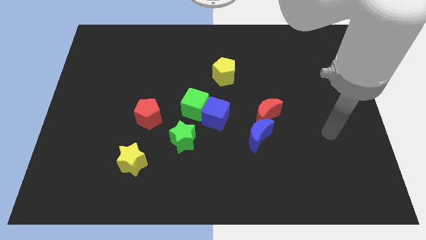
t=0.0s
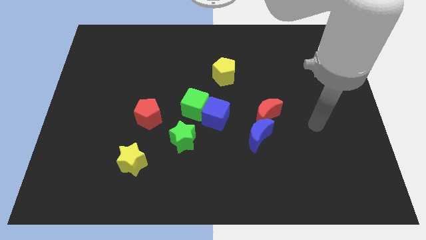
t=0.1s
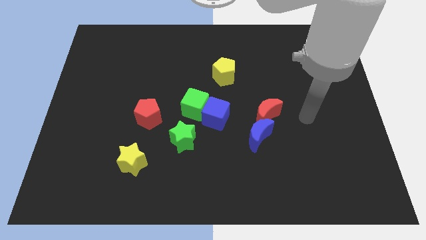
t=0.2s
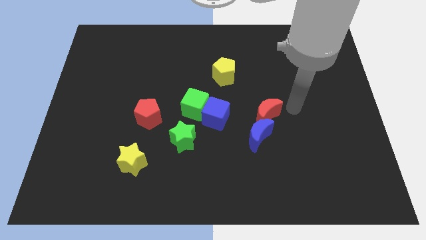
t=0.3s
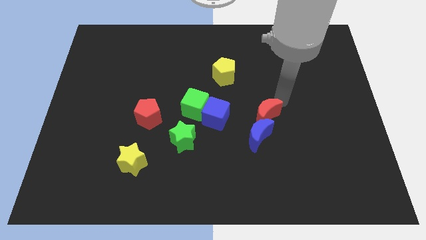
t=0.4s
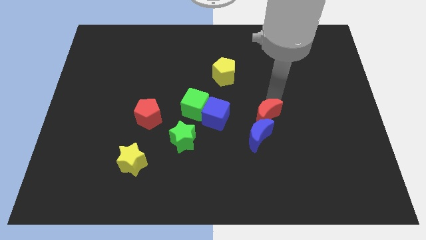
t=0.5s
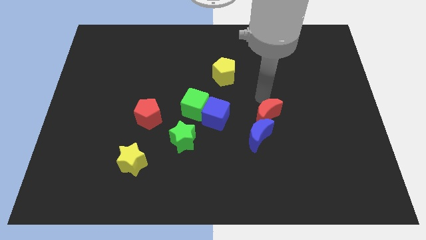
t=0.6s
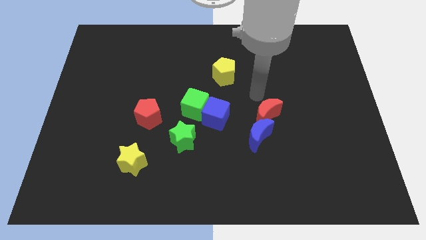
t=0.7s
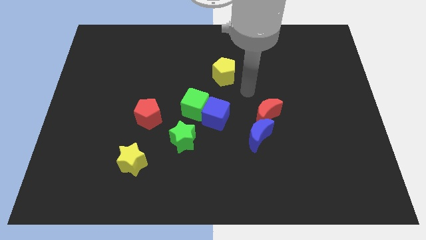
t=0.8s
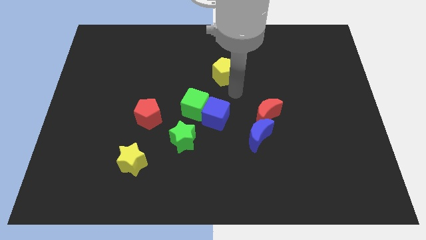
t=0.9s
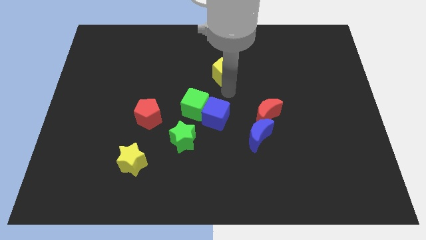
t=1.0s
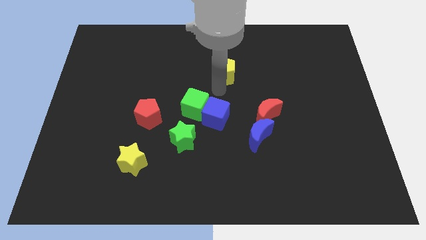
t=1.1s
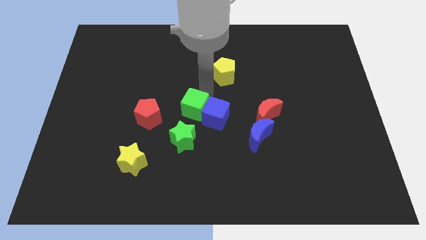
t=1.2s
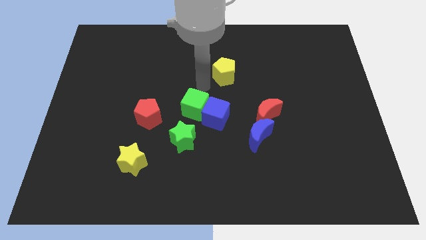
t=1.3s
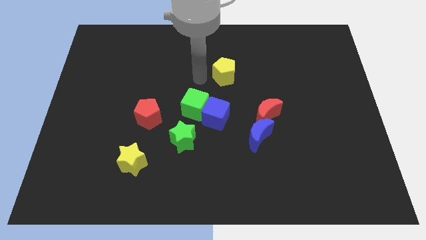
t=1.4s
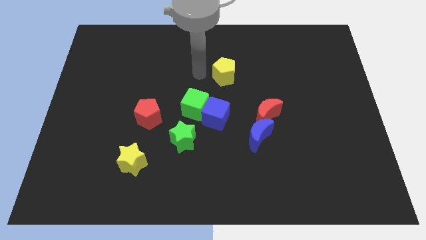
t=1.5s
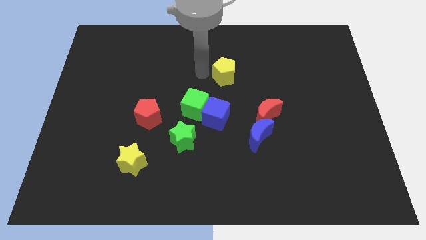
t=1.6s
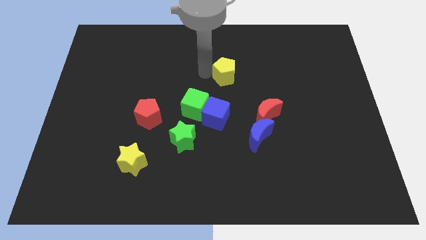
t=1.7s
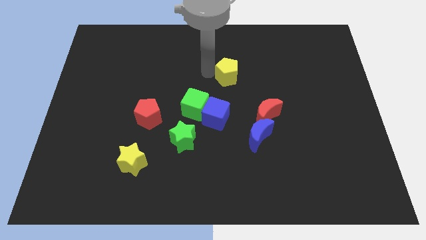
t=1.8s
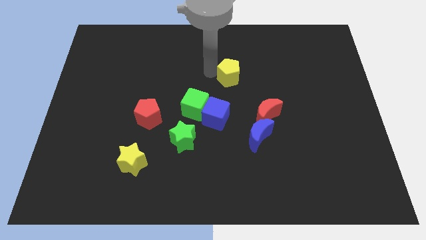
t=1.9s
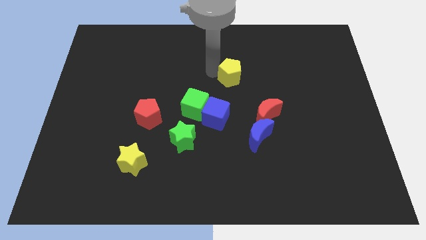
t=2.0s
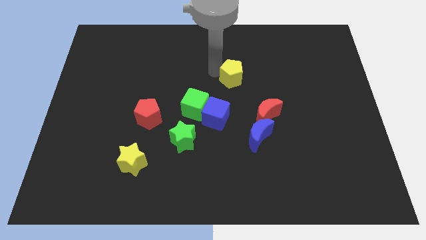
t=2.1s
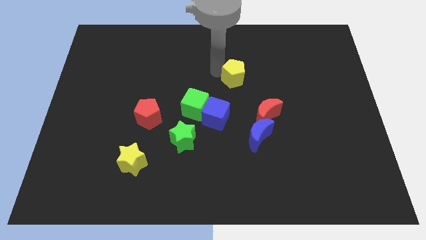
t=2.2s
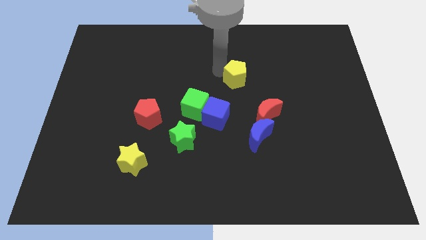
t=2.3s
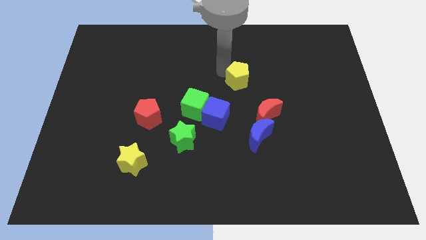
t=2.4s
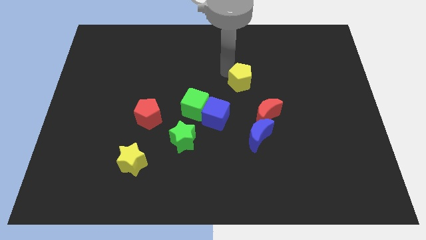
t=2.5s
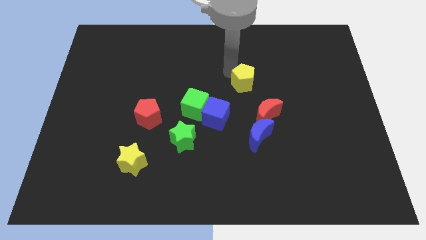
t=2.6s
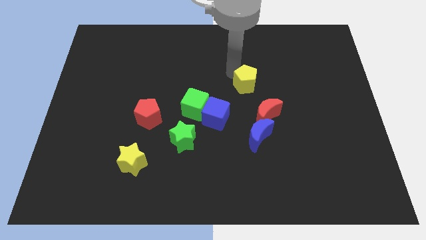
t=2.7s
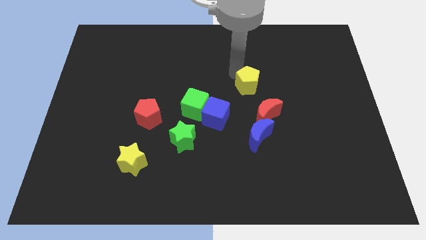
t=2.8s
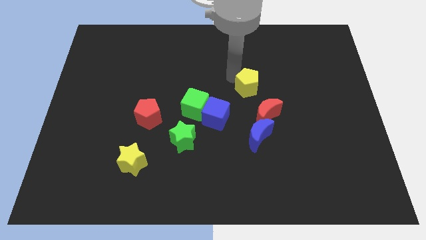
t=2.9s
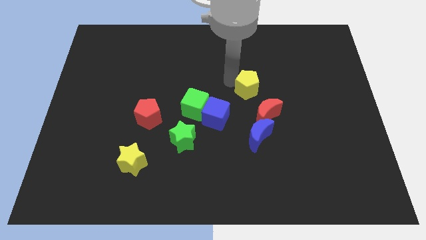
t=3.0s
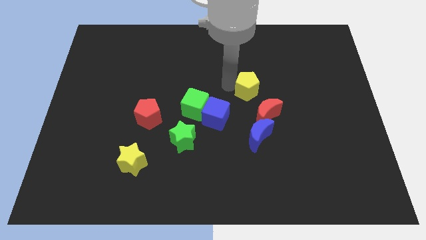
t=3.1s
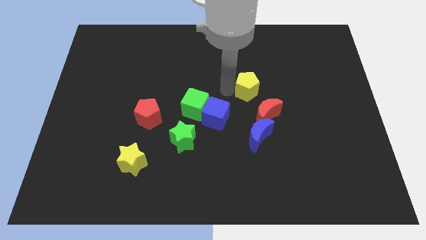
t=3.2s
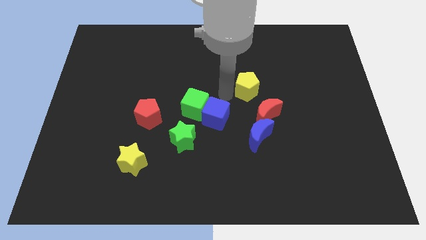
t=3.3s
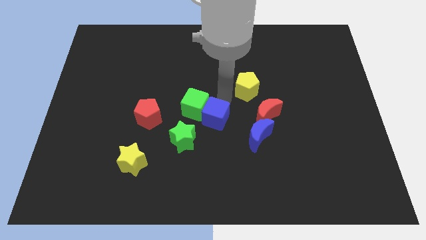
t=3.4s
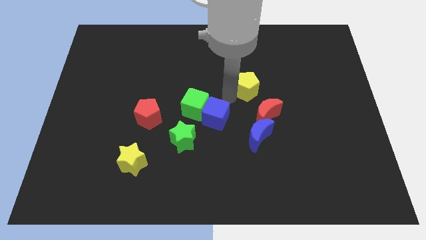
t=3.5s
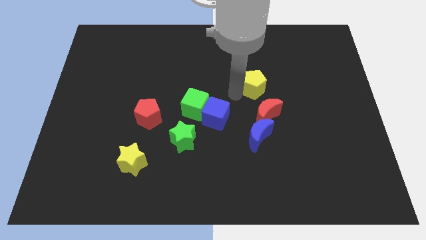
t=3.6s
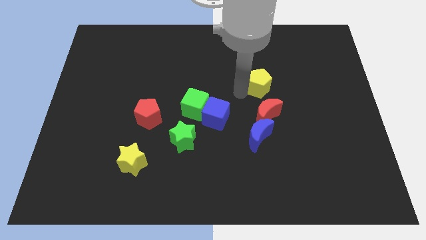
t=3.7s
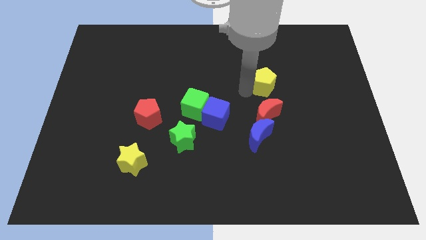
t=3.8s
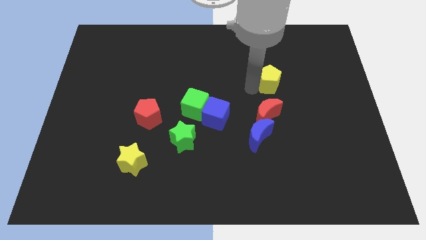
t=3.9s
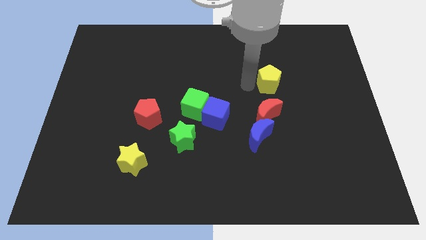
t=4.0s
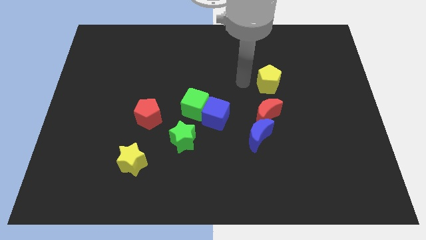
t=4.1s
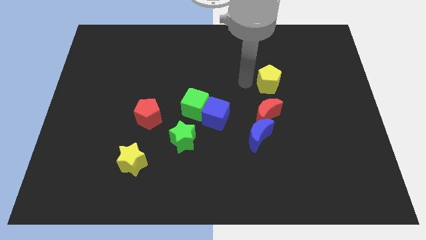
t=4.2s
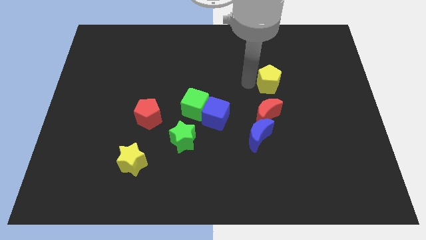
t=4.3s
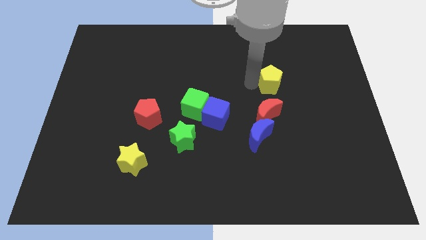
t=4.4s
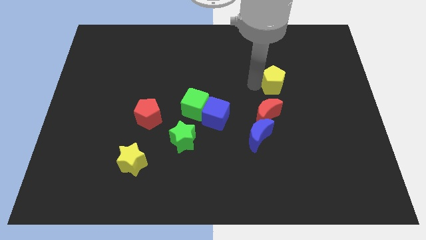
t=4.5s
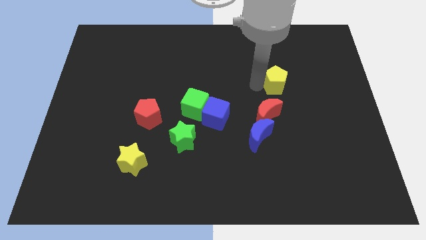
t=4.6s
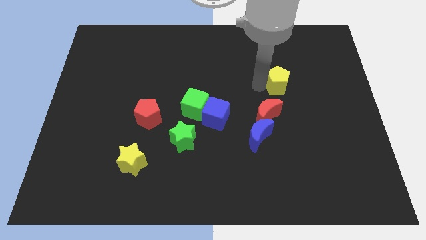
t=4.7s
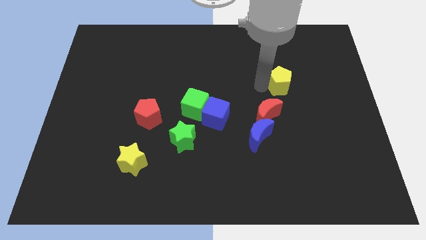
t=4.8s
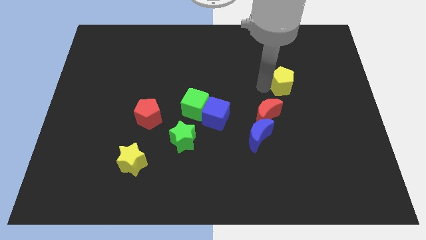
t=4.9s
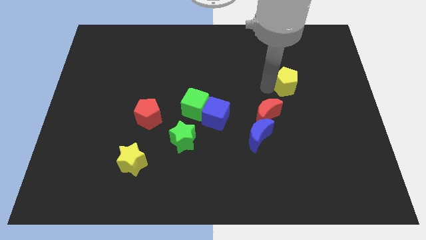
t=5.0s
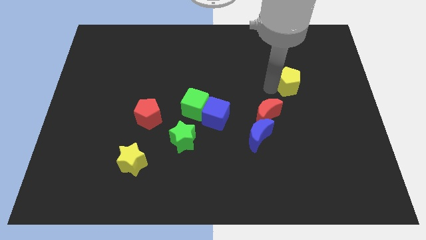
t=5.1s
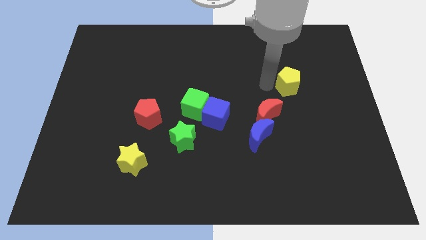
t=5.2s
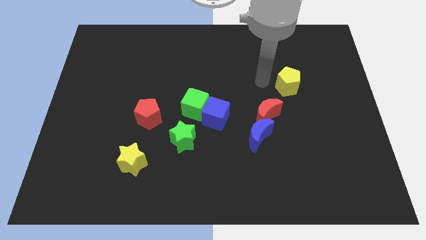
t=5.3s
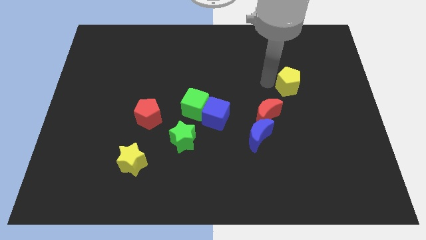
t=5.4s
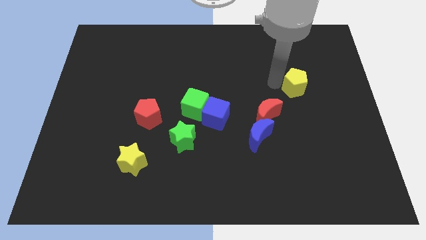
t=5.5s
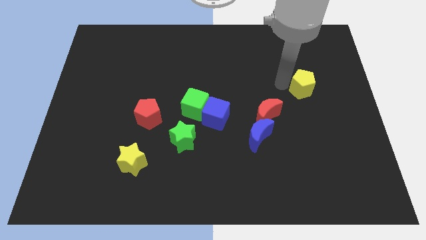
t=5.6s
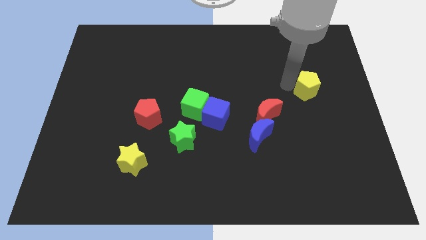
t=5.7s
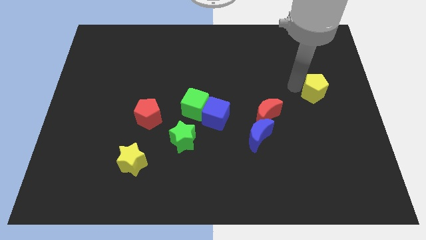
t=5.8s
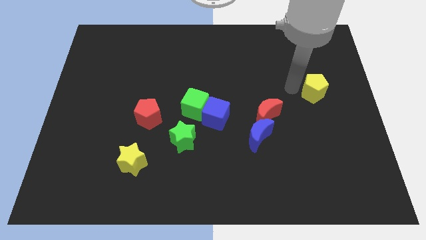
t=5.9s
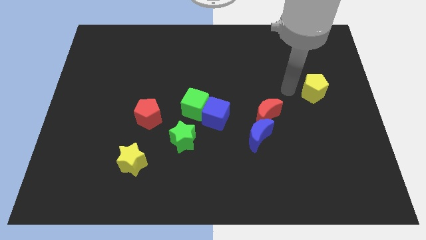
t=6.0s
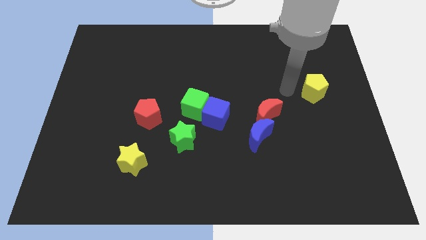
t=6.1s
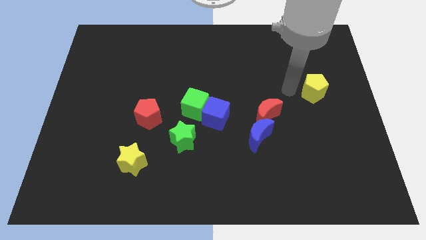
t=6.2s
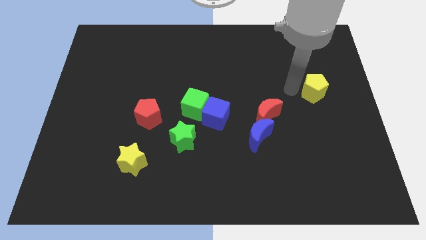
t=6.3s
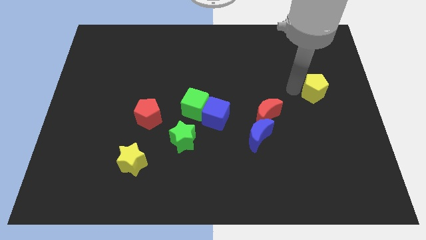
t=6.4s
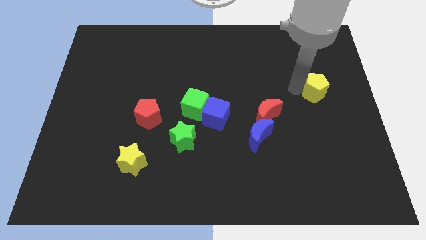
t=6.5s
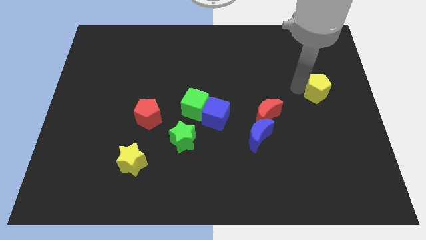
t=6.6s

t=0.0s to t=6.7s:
slide the yellow pentagon to the right side of the board

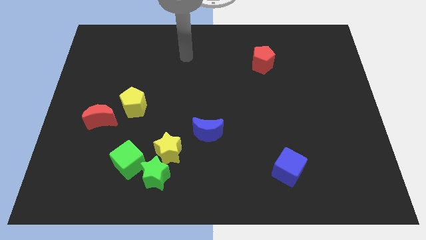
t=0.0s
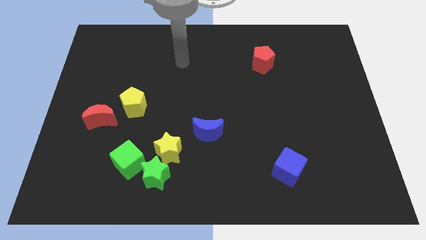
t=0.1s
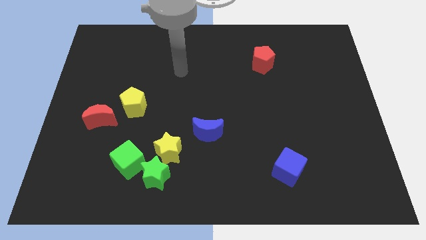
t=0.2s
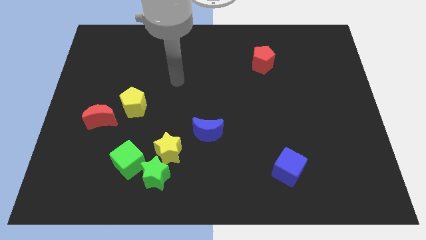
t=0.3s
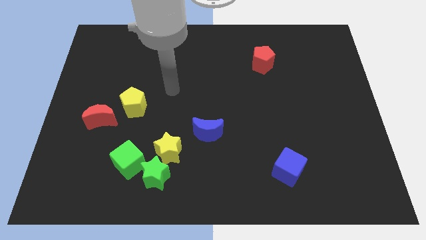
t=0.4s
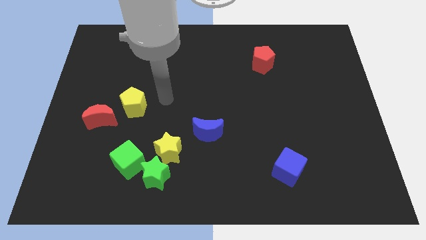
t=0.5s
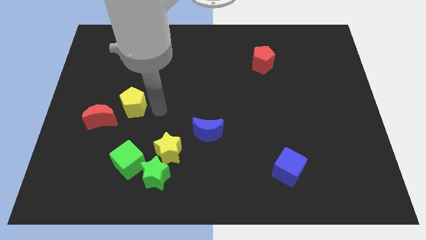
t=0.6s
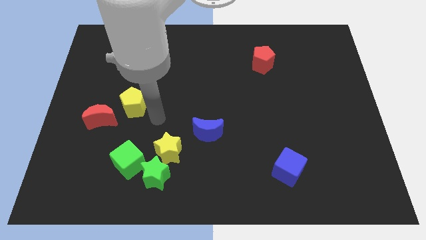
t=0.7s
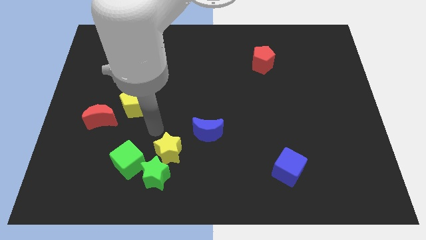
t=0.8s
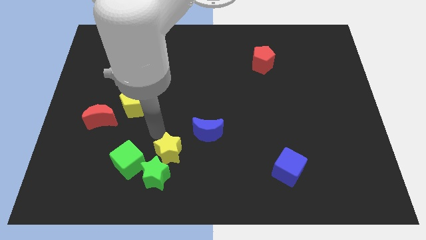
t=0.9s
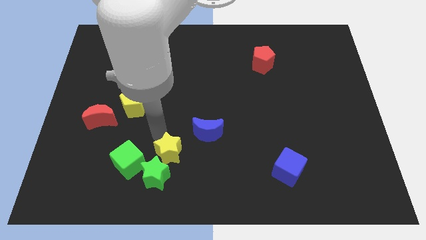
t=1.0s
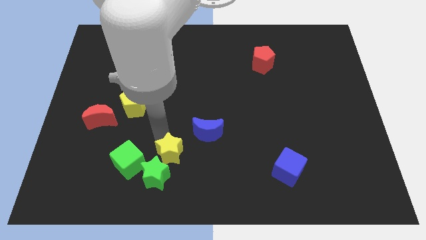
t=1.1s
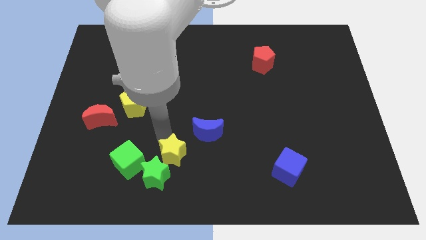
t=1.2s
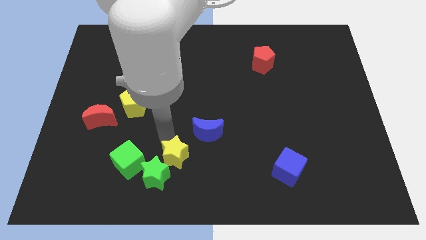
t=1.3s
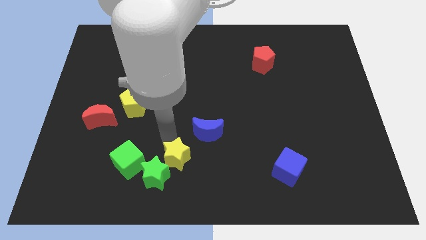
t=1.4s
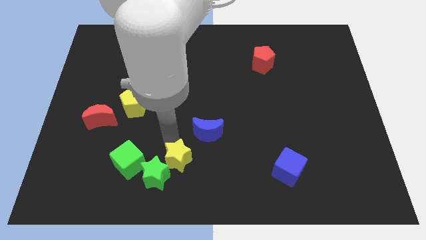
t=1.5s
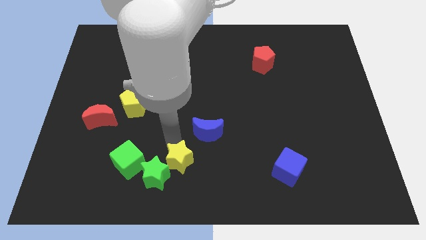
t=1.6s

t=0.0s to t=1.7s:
push the yellow star to the bottom

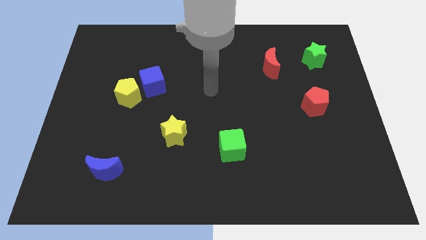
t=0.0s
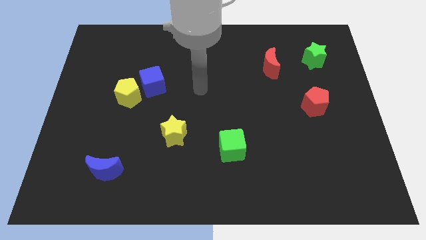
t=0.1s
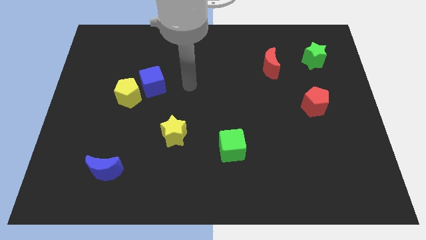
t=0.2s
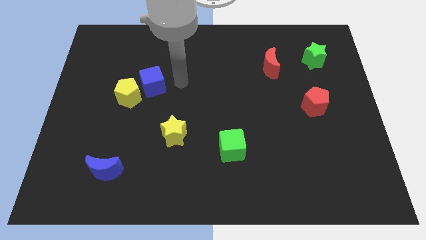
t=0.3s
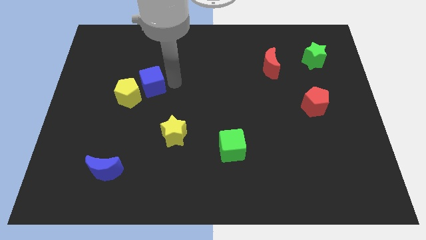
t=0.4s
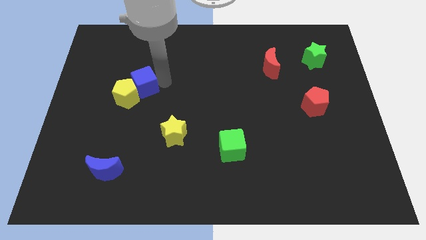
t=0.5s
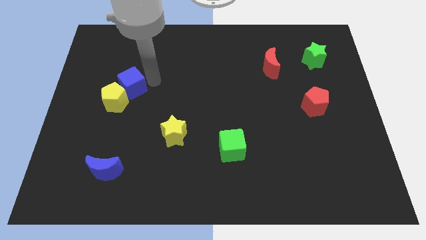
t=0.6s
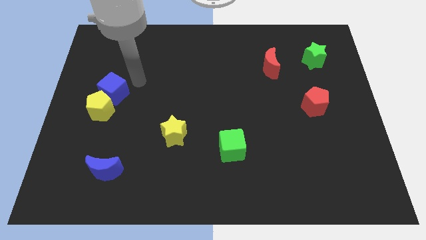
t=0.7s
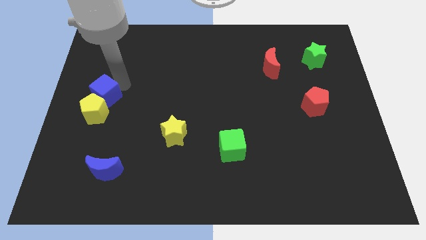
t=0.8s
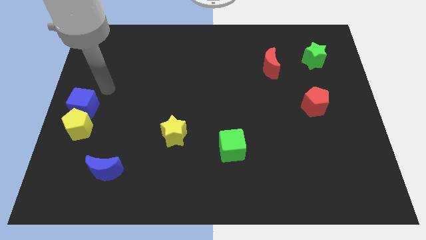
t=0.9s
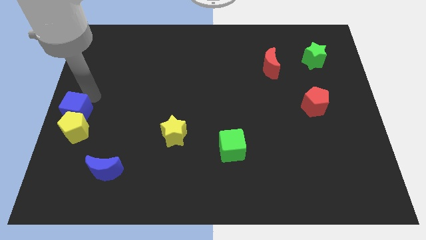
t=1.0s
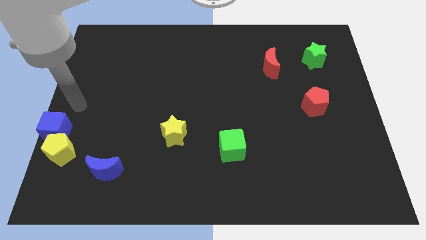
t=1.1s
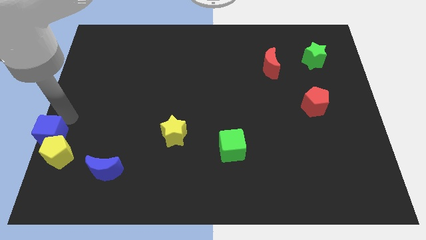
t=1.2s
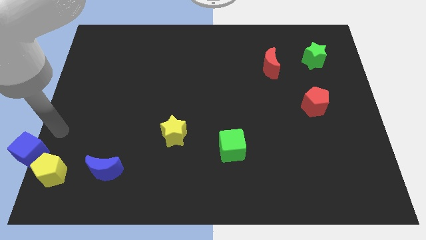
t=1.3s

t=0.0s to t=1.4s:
move the yellow pentagon to the bottom left
